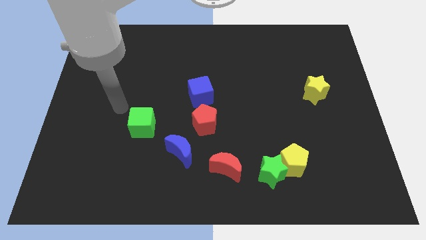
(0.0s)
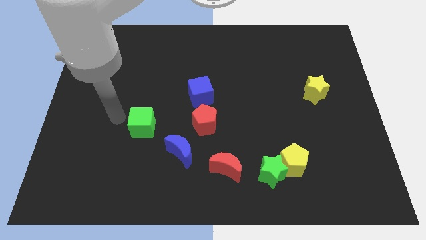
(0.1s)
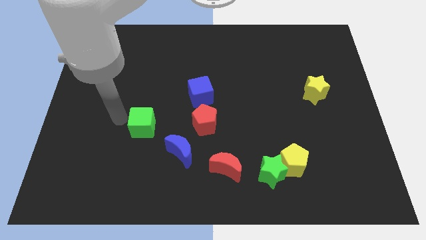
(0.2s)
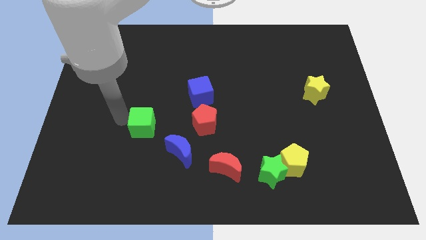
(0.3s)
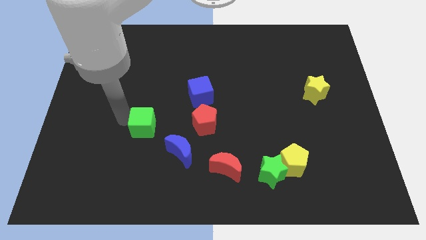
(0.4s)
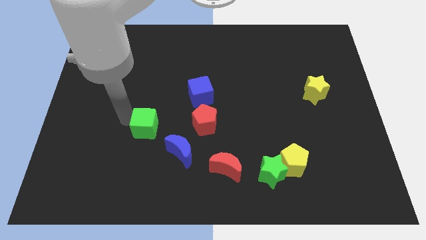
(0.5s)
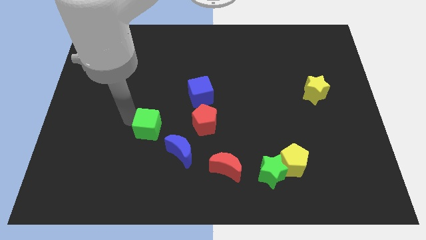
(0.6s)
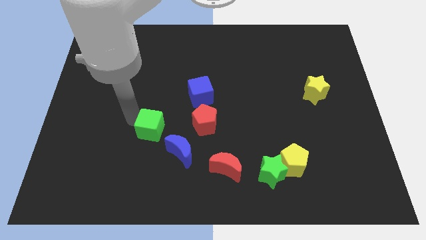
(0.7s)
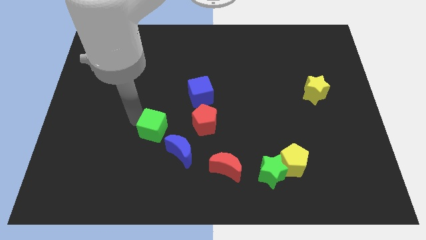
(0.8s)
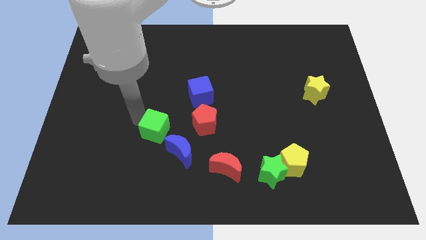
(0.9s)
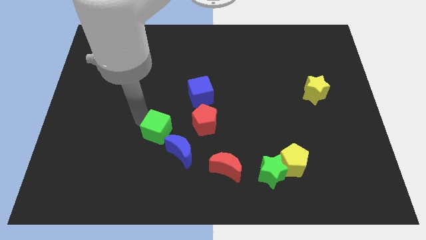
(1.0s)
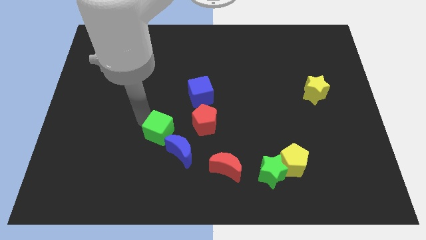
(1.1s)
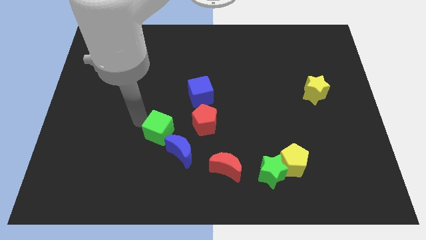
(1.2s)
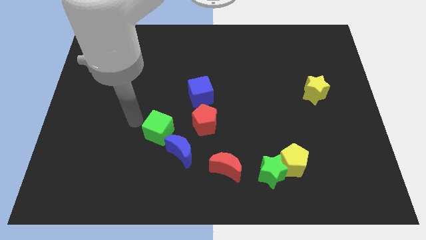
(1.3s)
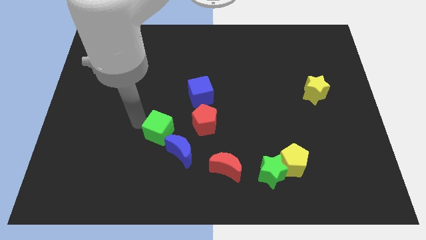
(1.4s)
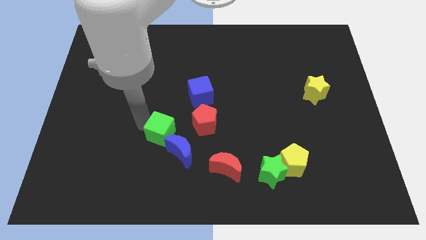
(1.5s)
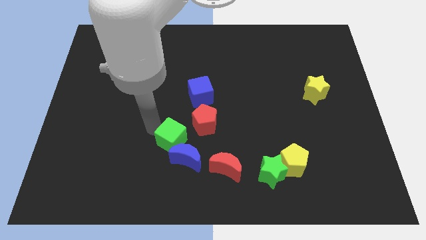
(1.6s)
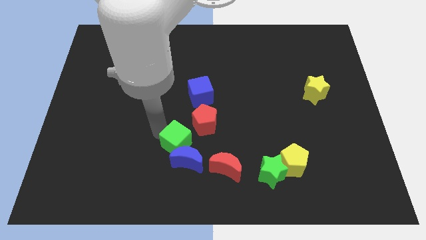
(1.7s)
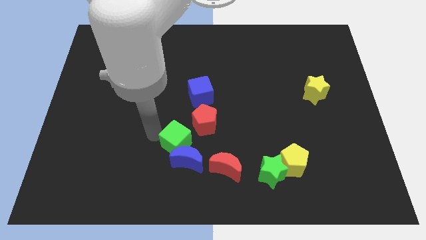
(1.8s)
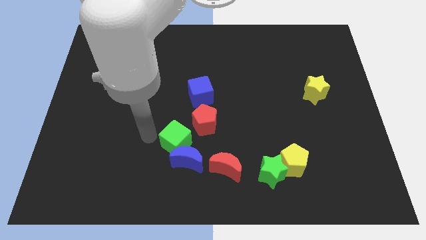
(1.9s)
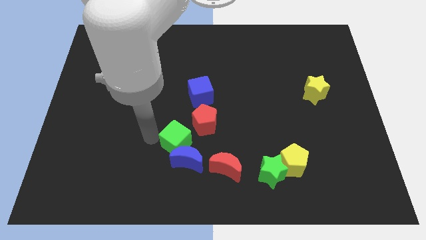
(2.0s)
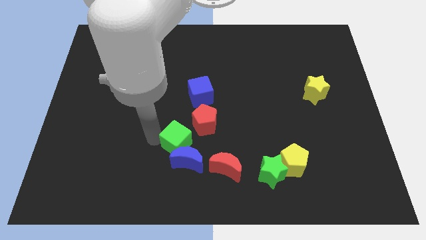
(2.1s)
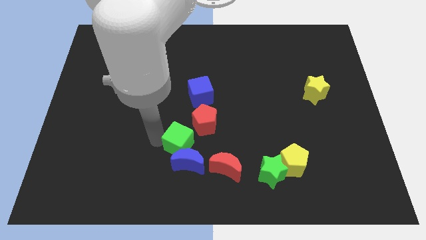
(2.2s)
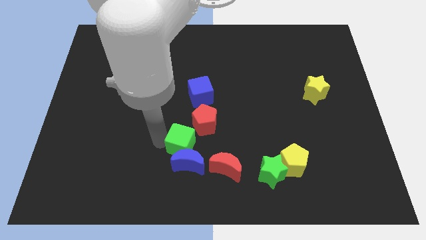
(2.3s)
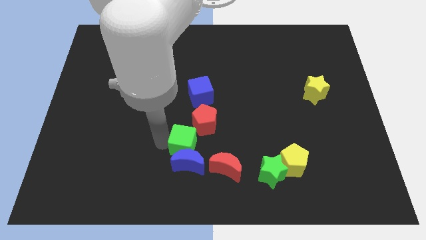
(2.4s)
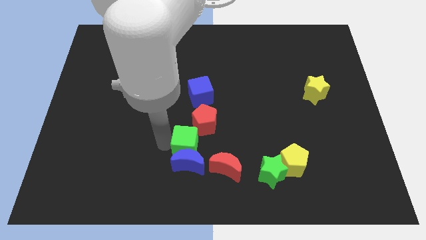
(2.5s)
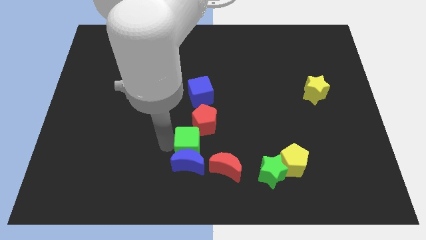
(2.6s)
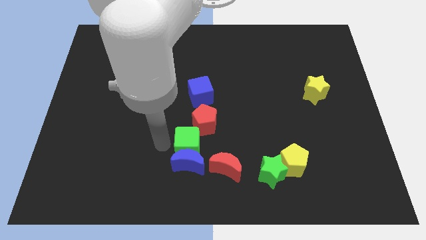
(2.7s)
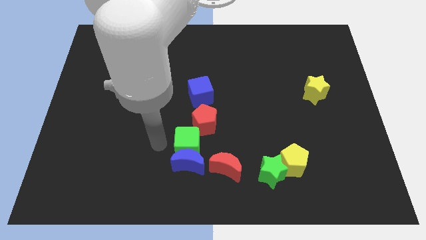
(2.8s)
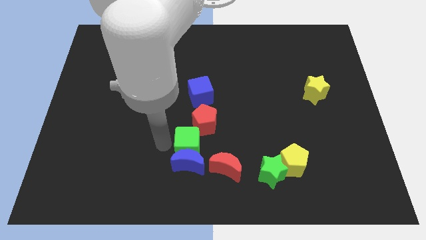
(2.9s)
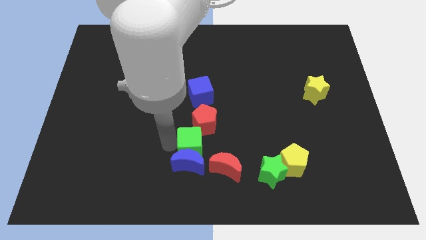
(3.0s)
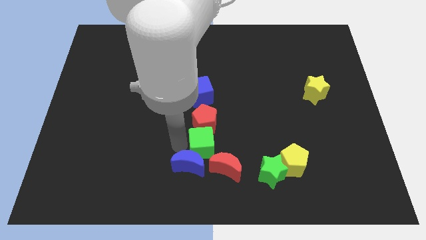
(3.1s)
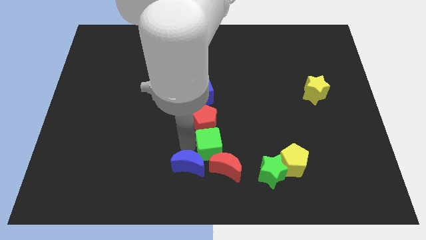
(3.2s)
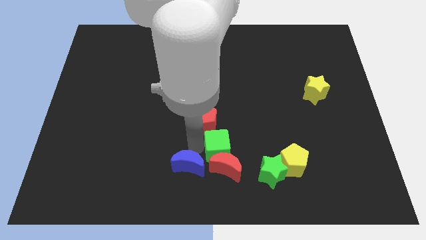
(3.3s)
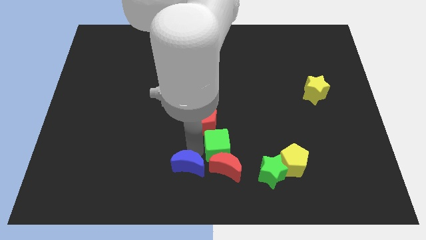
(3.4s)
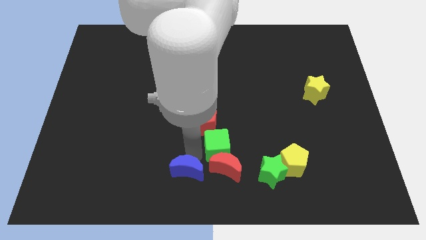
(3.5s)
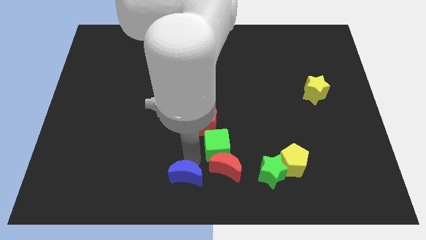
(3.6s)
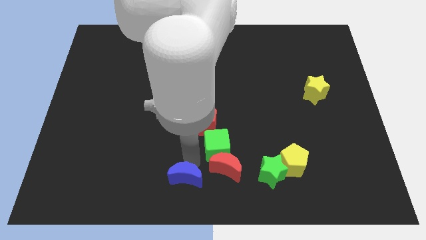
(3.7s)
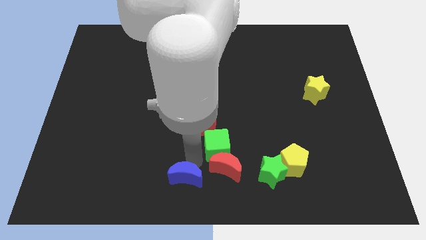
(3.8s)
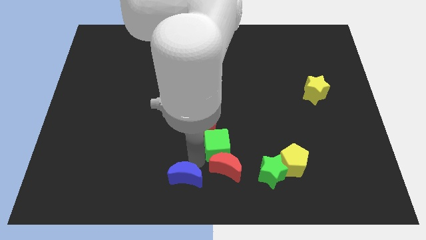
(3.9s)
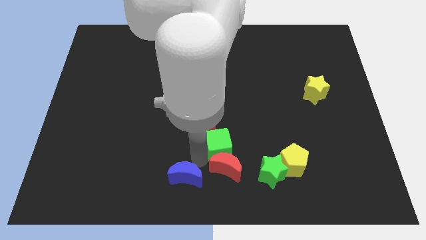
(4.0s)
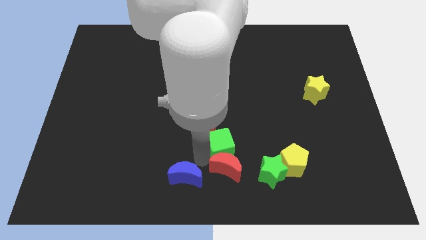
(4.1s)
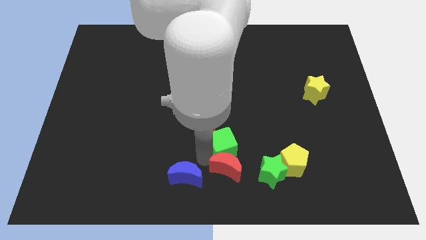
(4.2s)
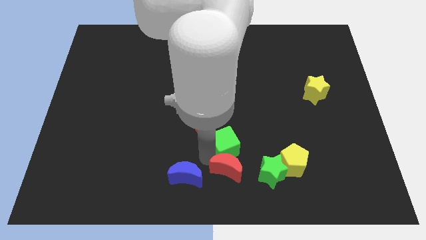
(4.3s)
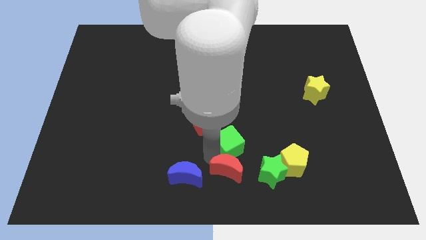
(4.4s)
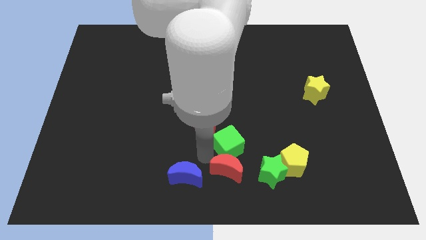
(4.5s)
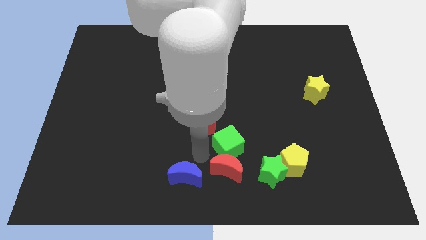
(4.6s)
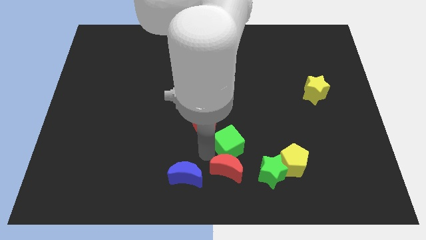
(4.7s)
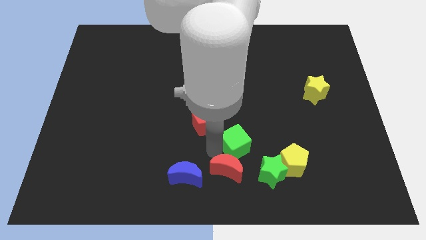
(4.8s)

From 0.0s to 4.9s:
move the green cube to the right

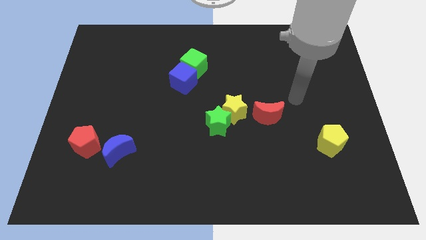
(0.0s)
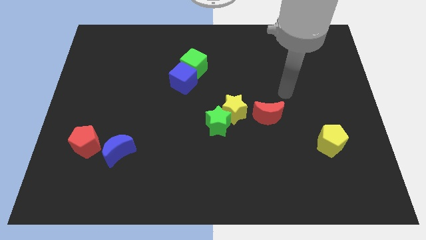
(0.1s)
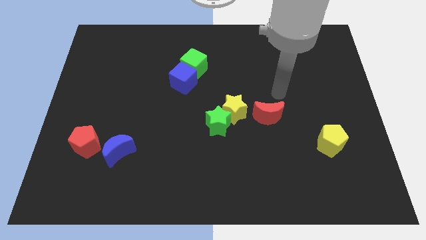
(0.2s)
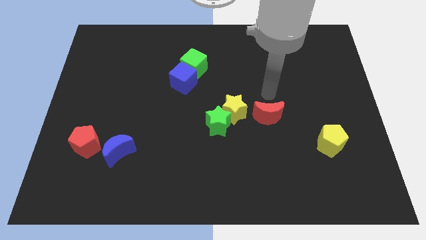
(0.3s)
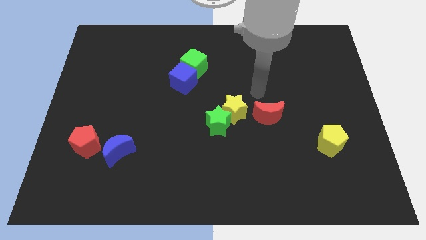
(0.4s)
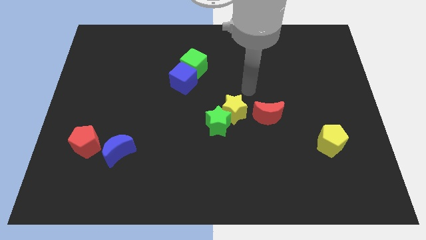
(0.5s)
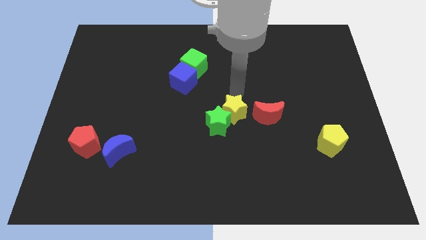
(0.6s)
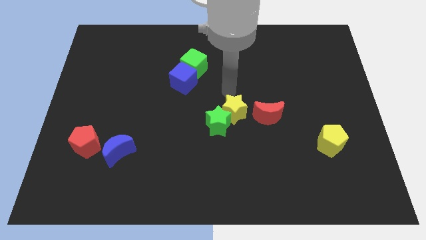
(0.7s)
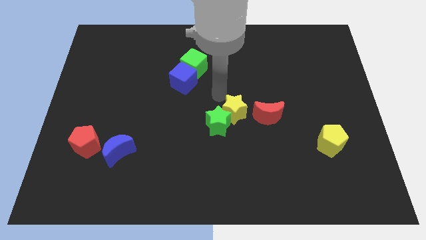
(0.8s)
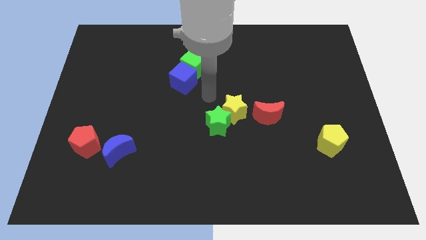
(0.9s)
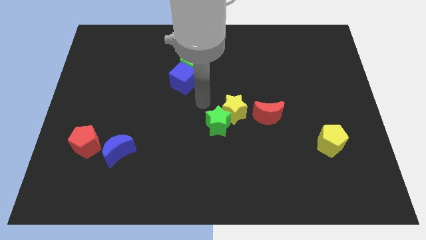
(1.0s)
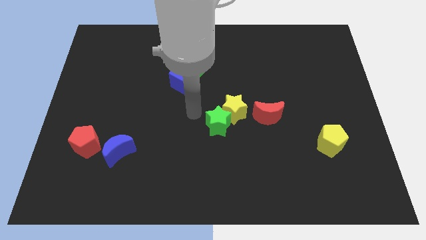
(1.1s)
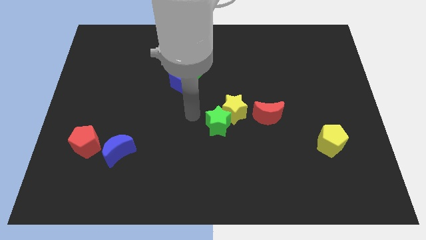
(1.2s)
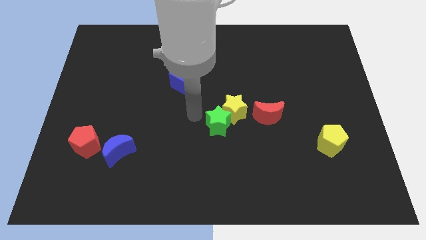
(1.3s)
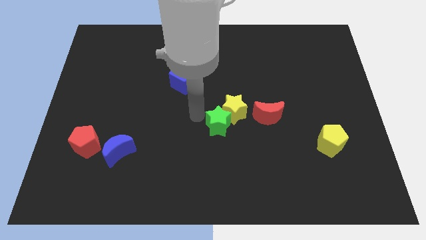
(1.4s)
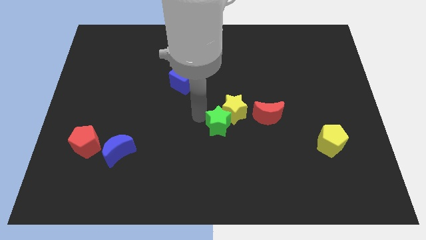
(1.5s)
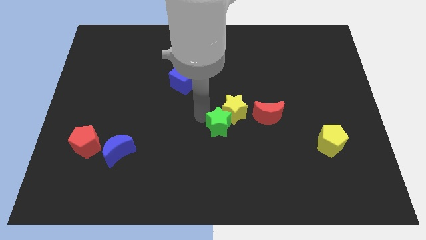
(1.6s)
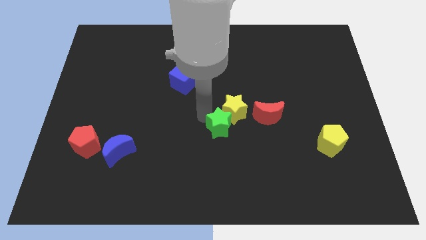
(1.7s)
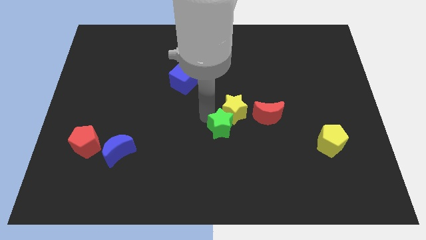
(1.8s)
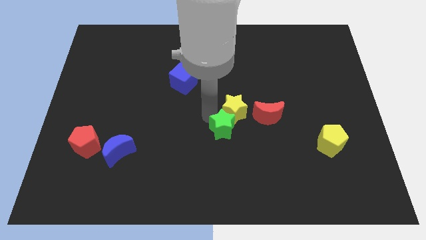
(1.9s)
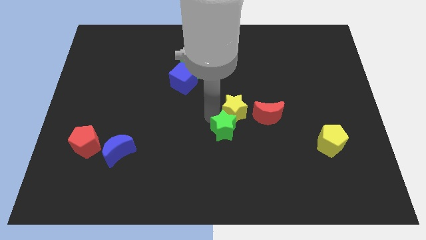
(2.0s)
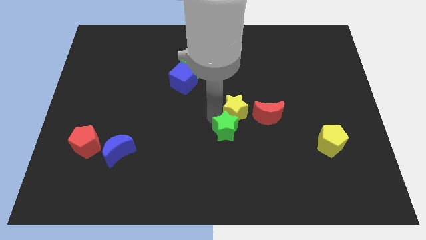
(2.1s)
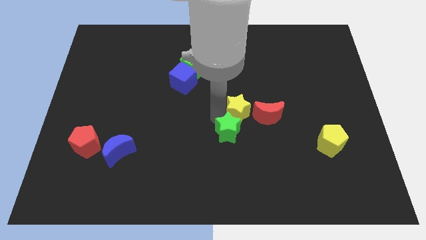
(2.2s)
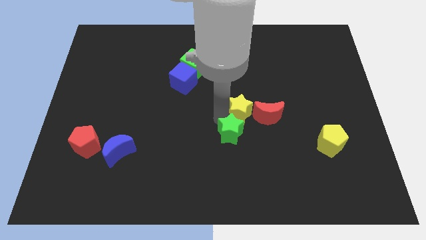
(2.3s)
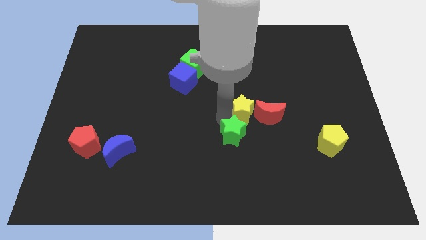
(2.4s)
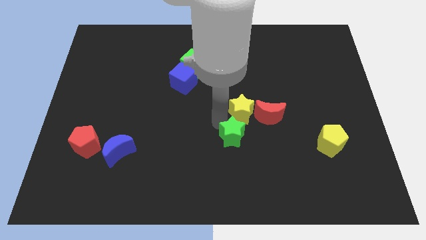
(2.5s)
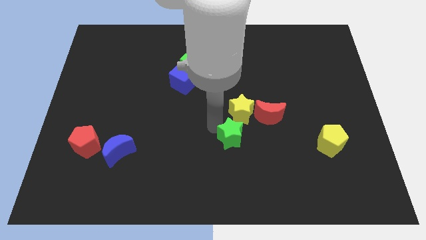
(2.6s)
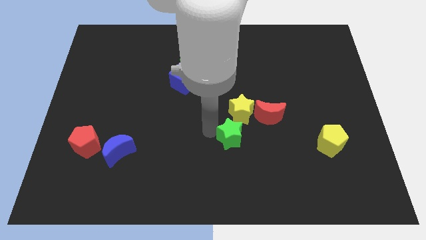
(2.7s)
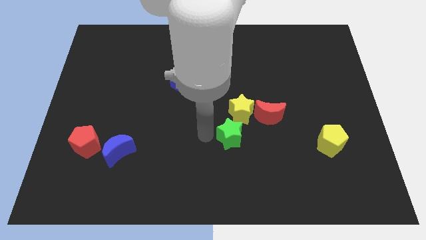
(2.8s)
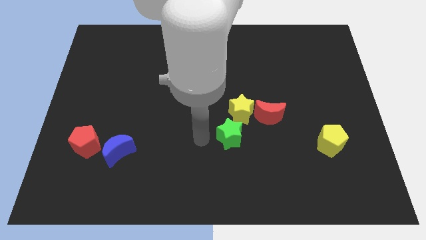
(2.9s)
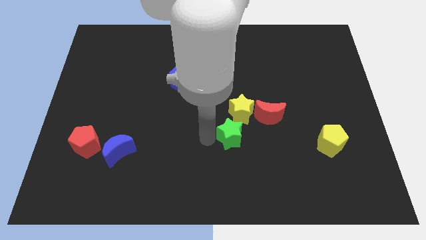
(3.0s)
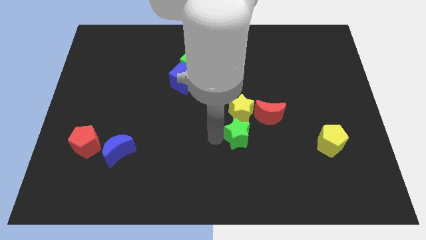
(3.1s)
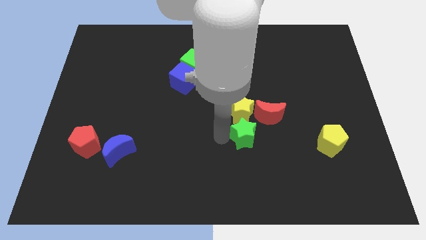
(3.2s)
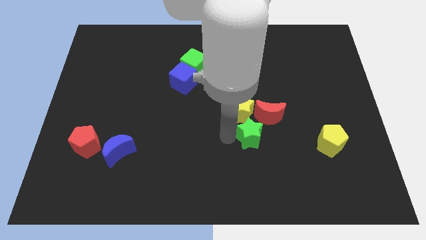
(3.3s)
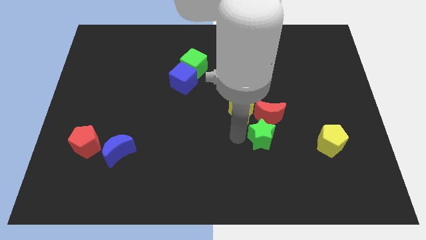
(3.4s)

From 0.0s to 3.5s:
slide the green star to the right a little bit
